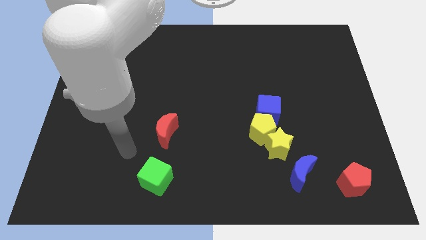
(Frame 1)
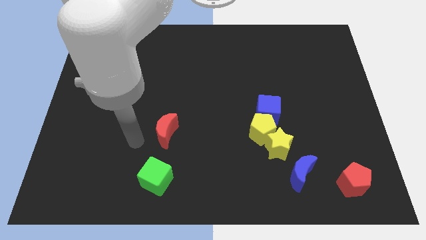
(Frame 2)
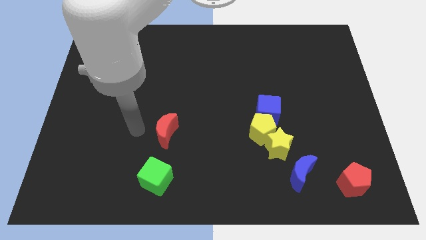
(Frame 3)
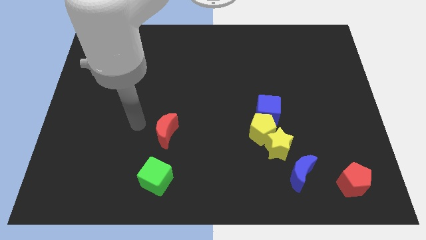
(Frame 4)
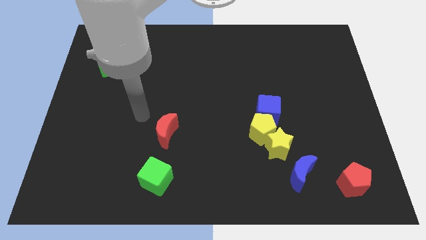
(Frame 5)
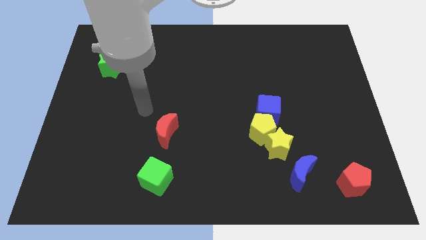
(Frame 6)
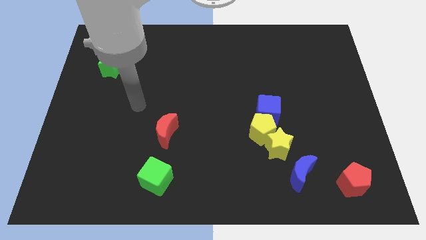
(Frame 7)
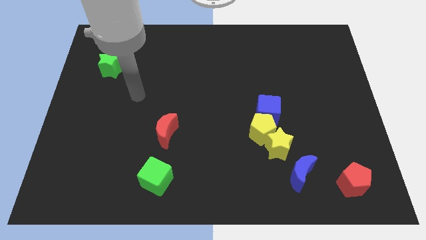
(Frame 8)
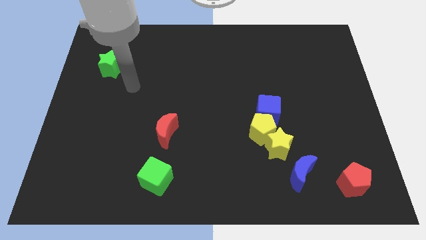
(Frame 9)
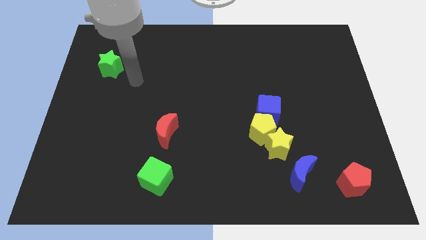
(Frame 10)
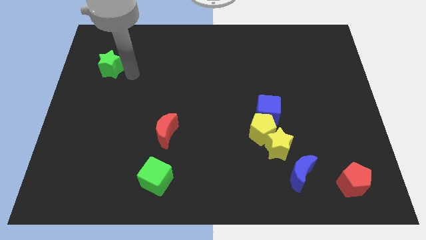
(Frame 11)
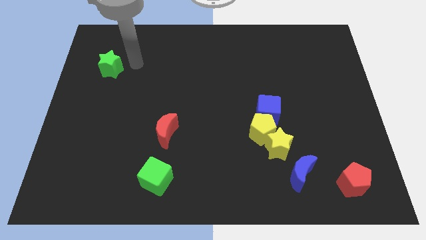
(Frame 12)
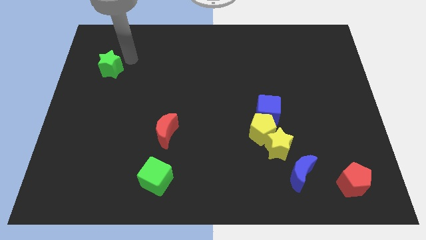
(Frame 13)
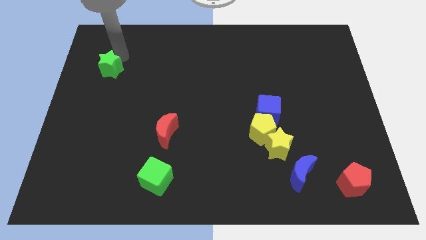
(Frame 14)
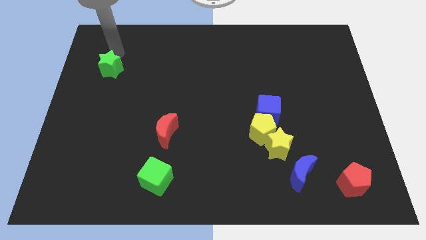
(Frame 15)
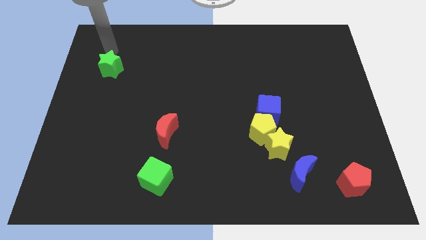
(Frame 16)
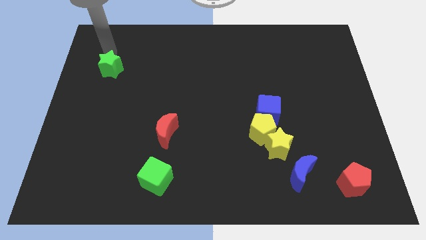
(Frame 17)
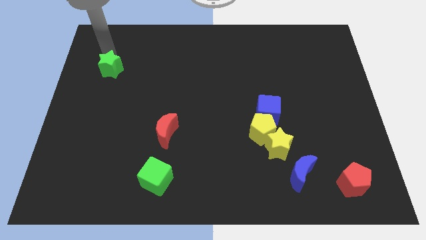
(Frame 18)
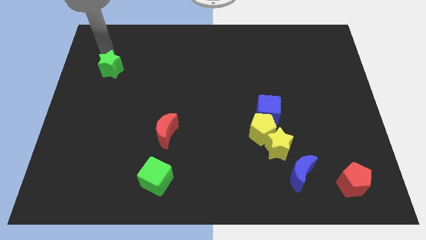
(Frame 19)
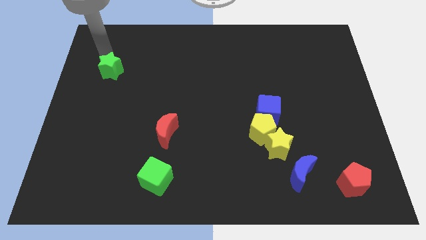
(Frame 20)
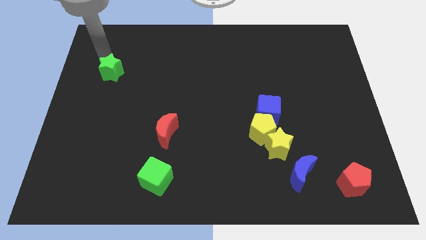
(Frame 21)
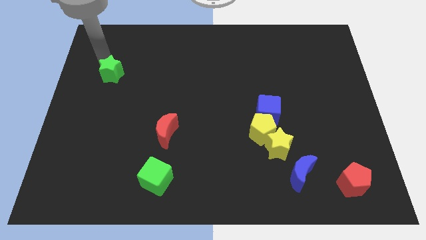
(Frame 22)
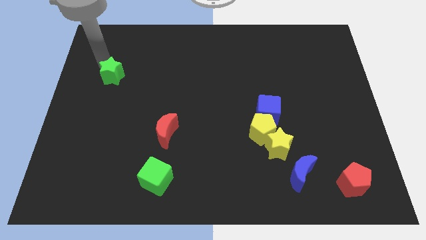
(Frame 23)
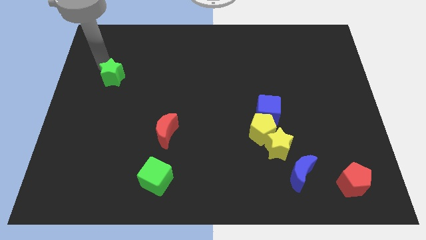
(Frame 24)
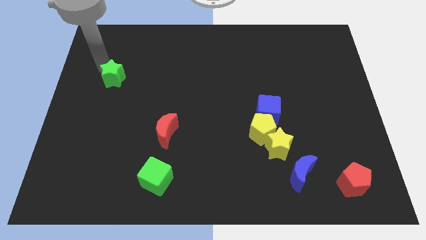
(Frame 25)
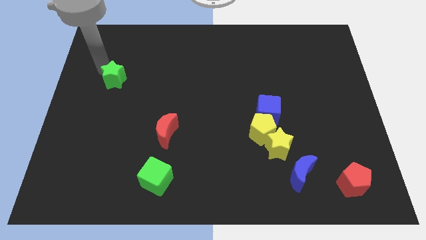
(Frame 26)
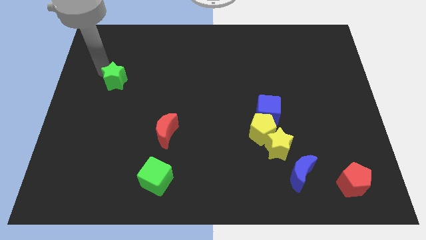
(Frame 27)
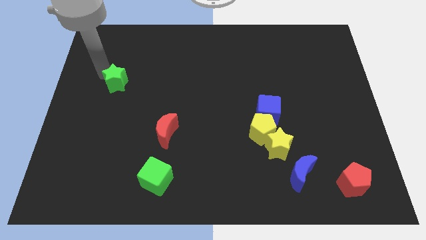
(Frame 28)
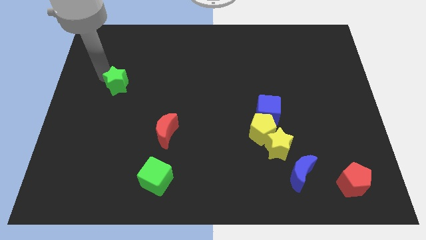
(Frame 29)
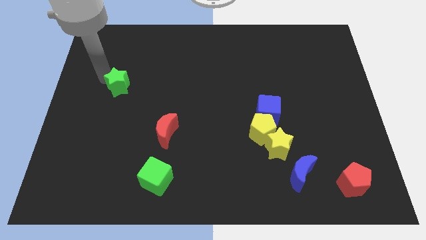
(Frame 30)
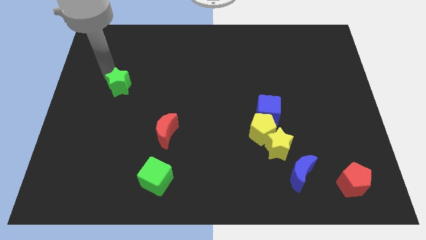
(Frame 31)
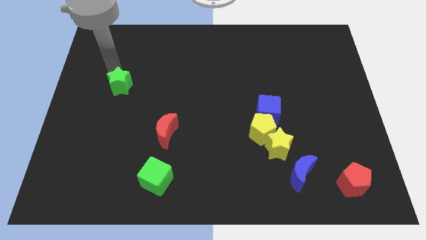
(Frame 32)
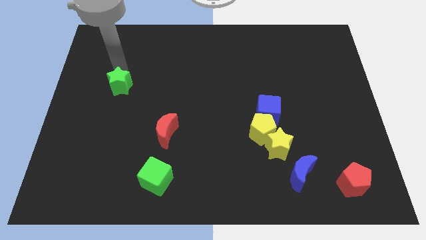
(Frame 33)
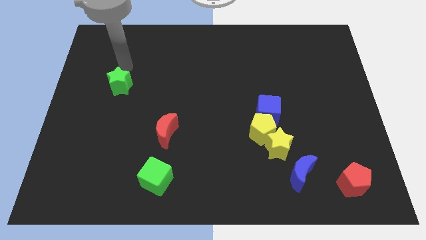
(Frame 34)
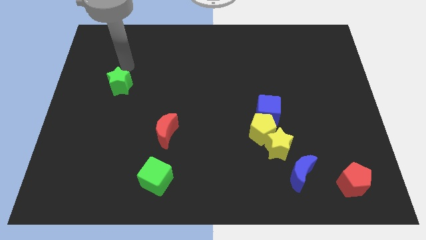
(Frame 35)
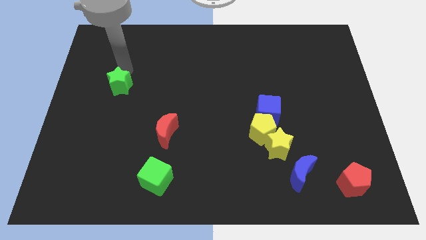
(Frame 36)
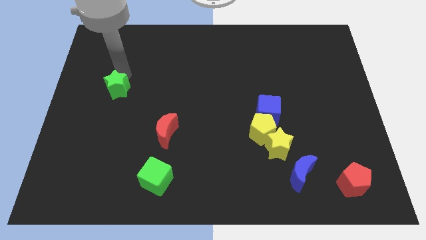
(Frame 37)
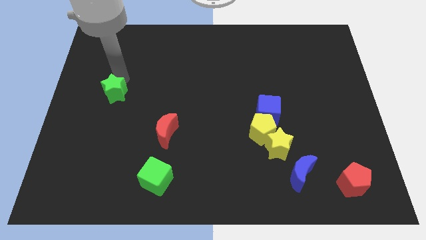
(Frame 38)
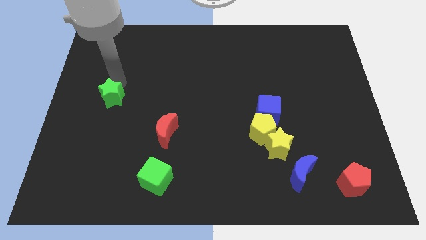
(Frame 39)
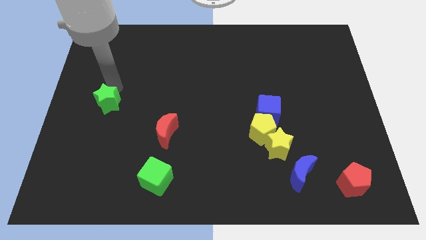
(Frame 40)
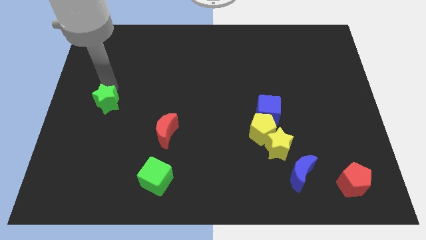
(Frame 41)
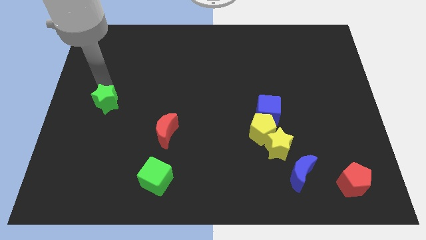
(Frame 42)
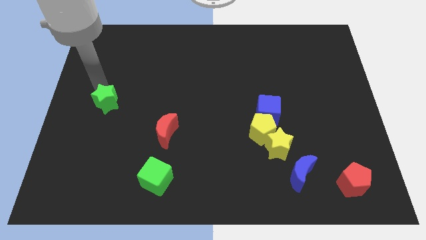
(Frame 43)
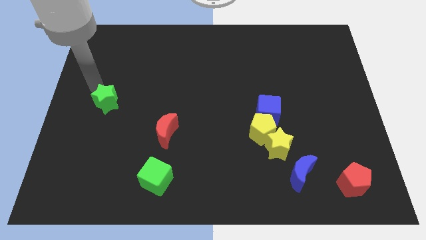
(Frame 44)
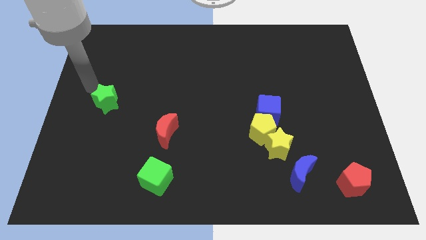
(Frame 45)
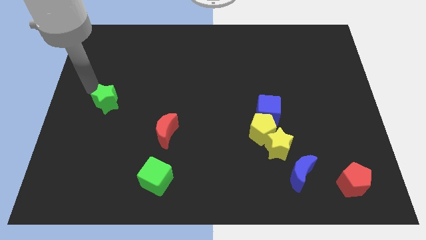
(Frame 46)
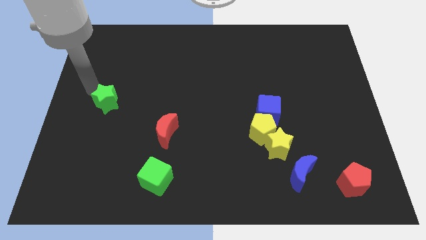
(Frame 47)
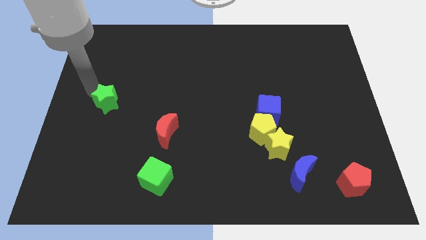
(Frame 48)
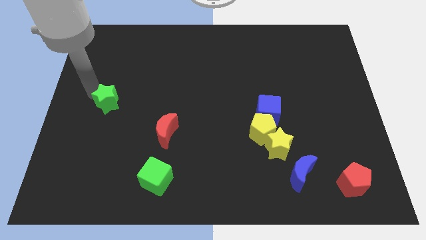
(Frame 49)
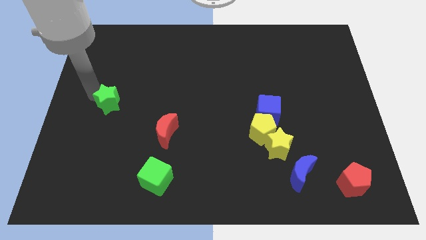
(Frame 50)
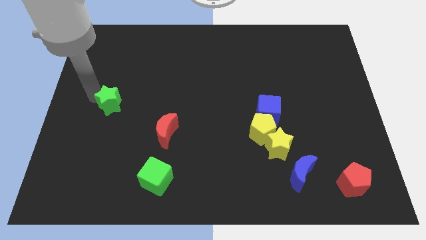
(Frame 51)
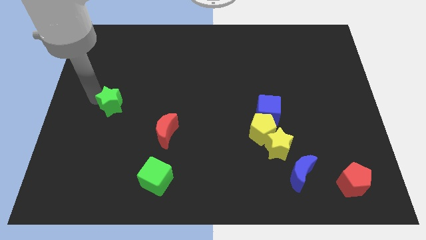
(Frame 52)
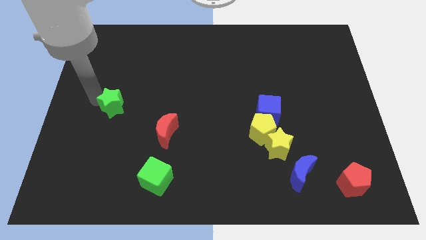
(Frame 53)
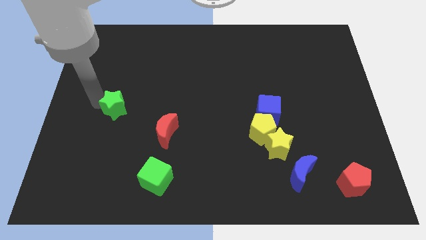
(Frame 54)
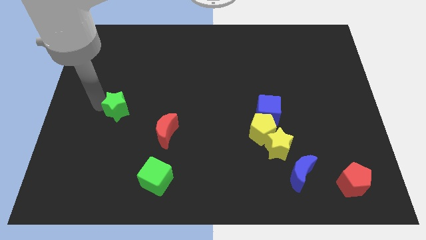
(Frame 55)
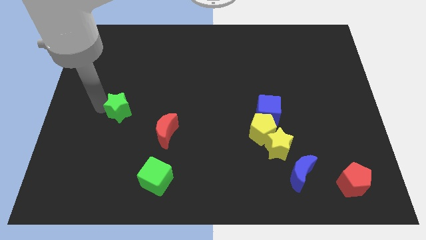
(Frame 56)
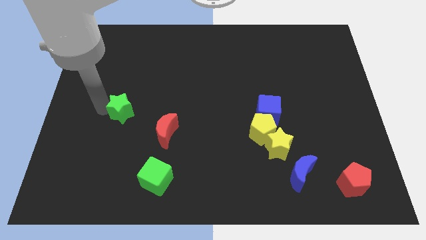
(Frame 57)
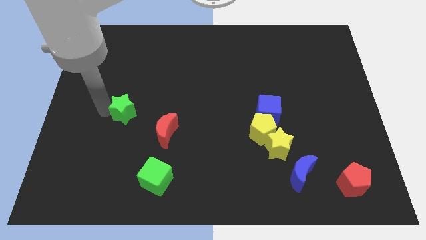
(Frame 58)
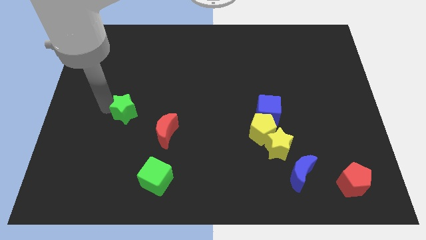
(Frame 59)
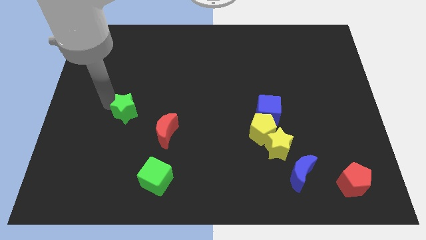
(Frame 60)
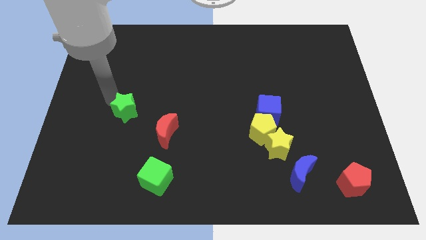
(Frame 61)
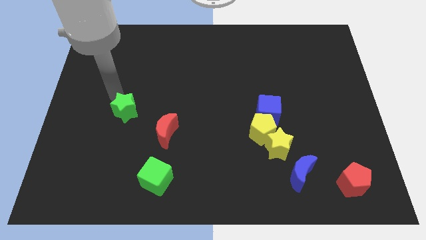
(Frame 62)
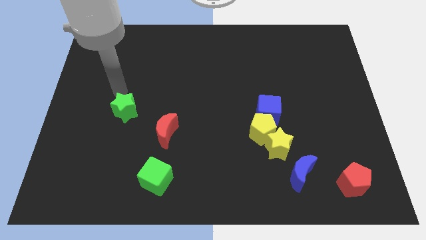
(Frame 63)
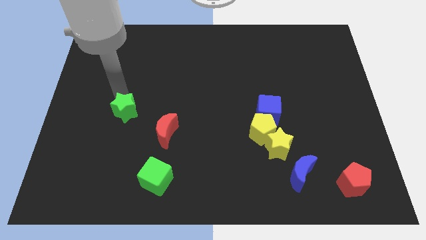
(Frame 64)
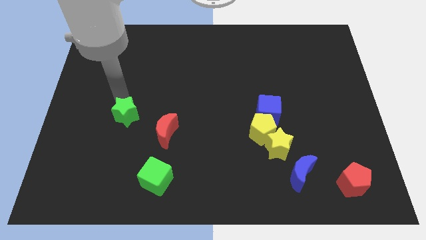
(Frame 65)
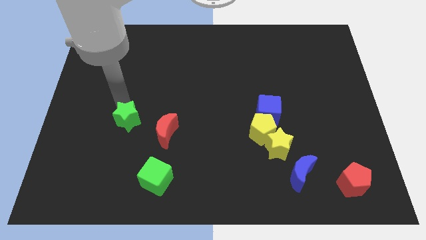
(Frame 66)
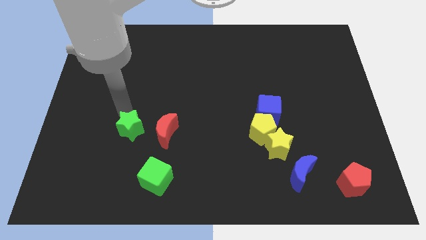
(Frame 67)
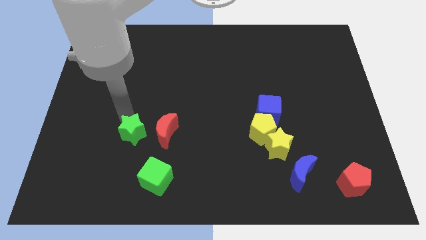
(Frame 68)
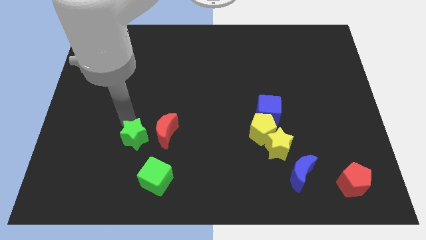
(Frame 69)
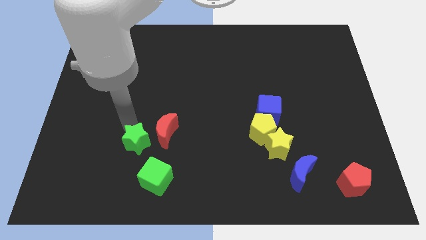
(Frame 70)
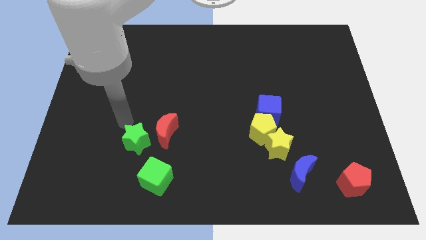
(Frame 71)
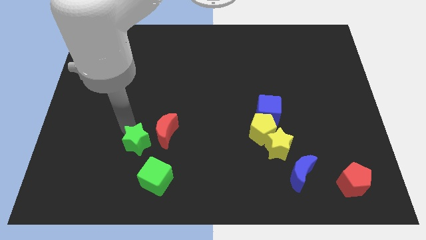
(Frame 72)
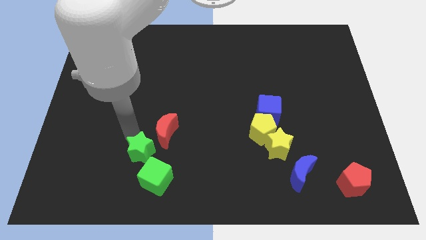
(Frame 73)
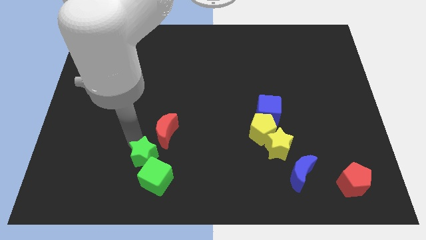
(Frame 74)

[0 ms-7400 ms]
slide the green star next to the green cube

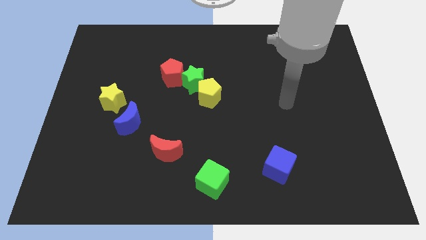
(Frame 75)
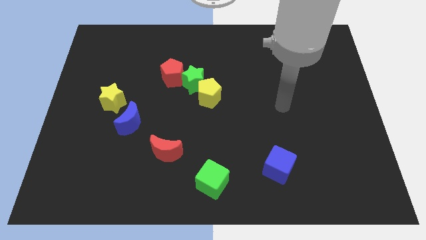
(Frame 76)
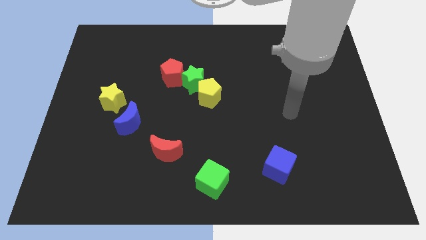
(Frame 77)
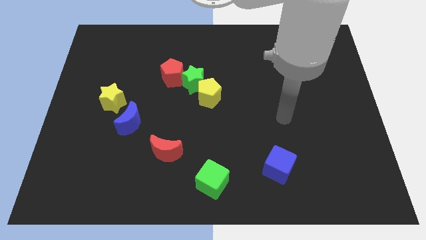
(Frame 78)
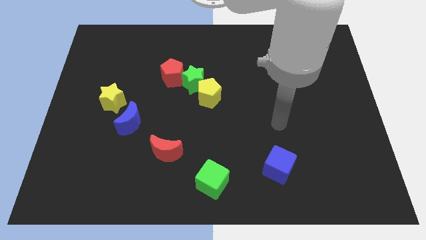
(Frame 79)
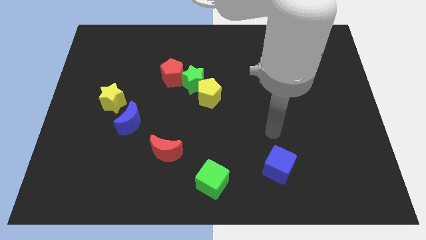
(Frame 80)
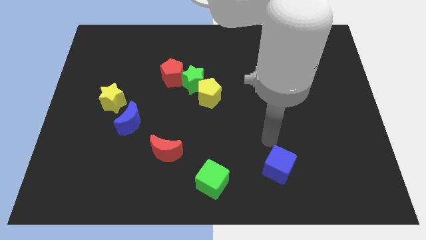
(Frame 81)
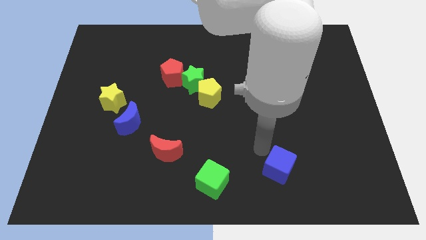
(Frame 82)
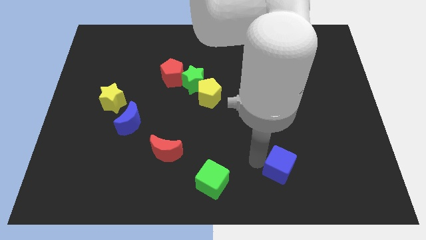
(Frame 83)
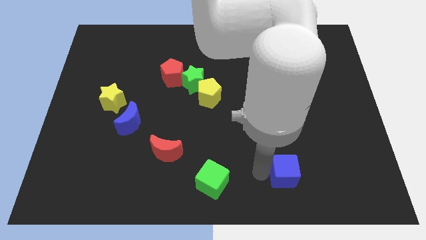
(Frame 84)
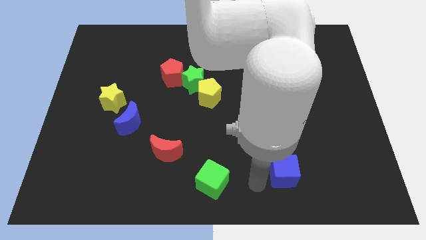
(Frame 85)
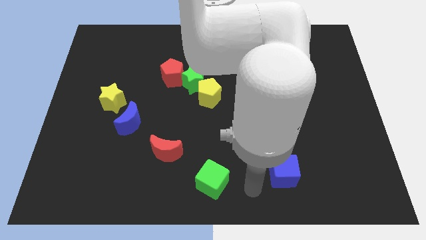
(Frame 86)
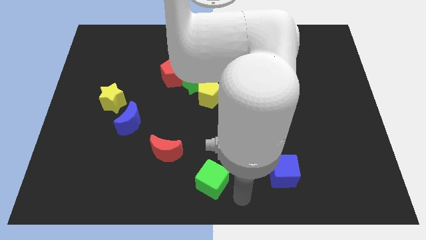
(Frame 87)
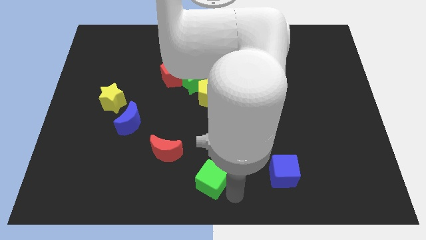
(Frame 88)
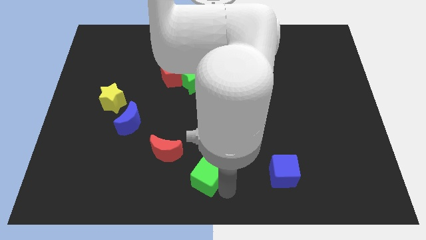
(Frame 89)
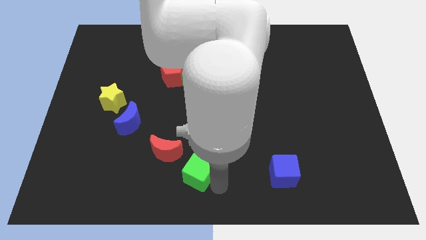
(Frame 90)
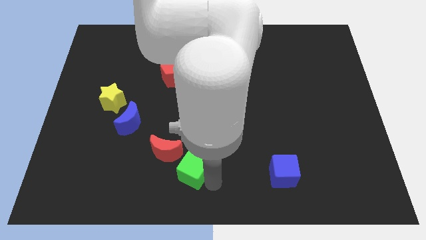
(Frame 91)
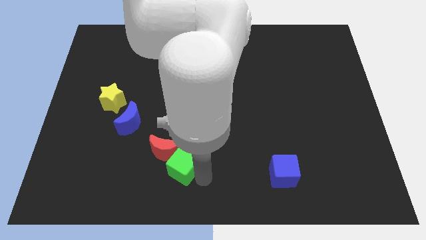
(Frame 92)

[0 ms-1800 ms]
slide the green cube towards the red moon
